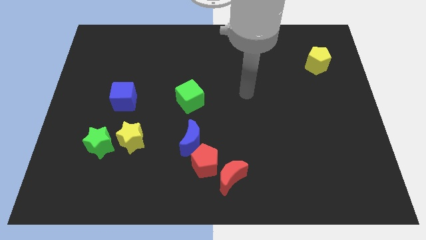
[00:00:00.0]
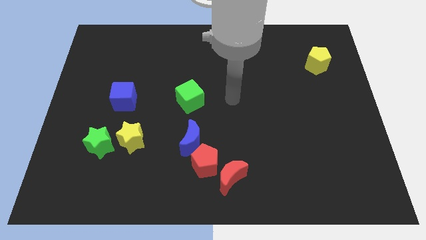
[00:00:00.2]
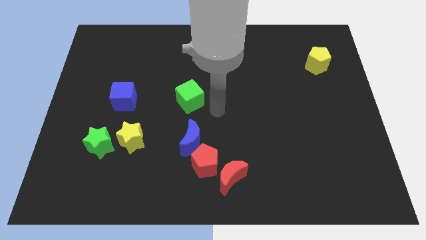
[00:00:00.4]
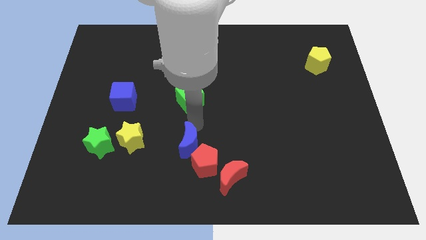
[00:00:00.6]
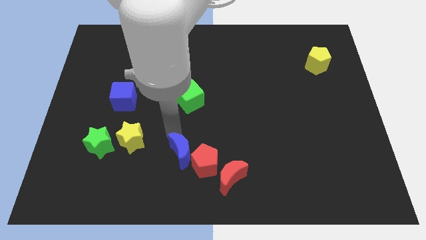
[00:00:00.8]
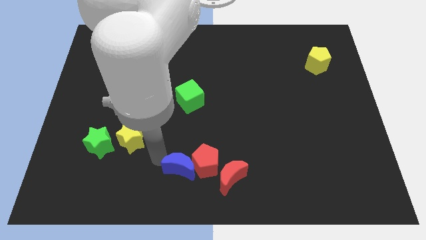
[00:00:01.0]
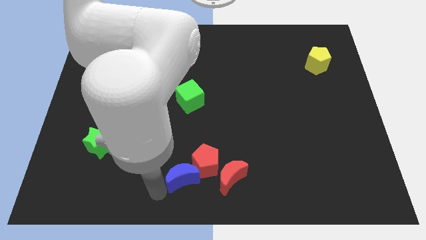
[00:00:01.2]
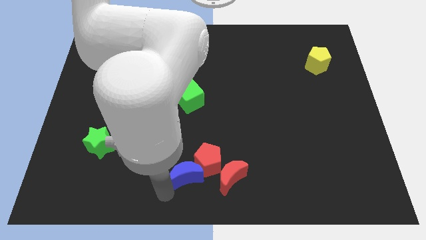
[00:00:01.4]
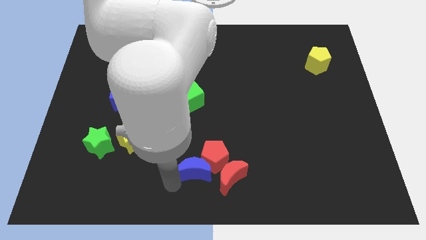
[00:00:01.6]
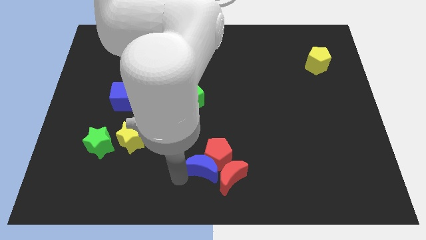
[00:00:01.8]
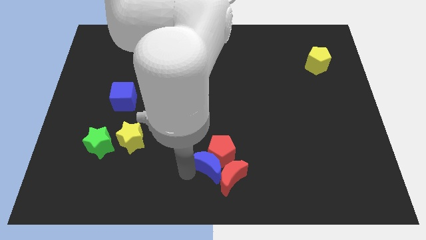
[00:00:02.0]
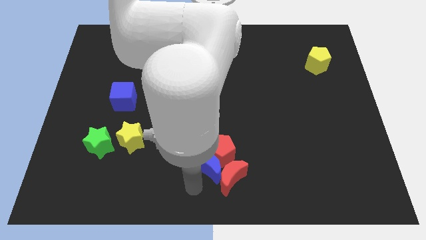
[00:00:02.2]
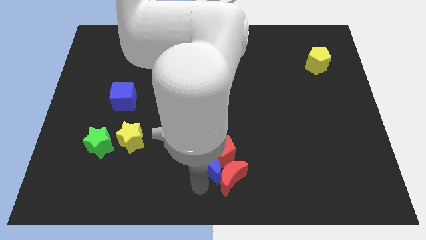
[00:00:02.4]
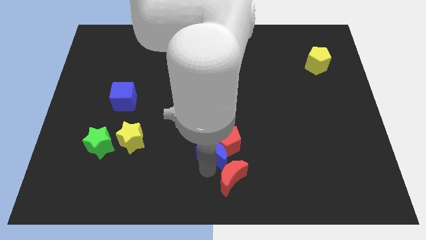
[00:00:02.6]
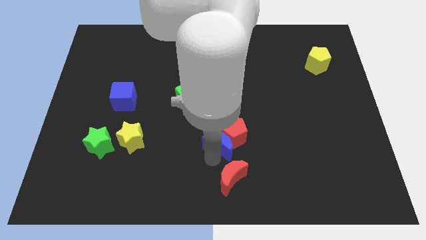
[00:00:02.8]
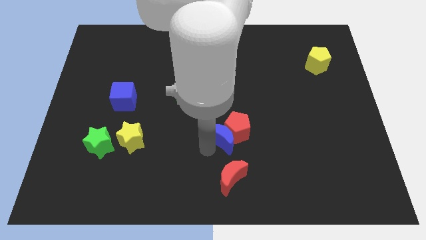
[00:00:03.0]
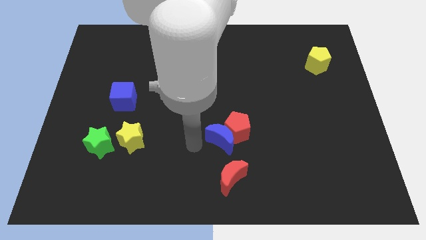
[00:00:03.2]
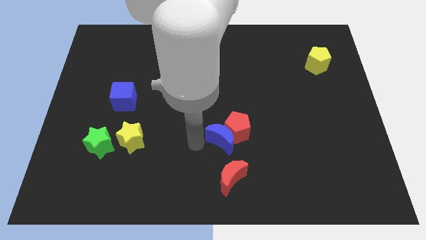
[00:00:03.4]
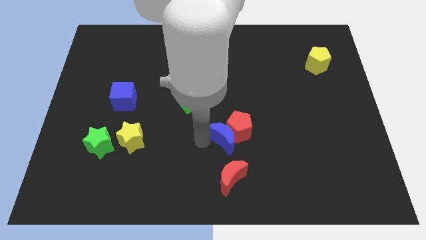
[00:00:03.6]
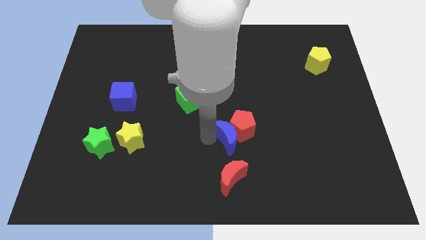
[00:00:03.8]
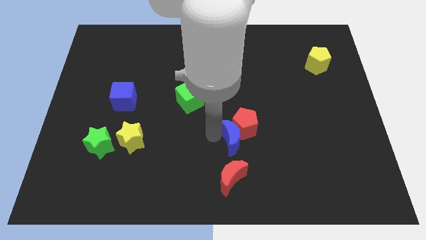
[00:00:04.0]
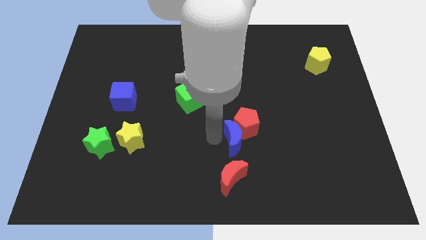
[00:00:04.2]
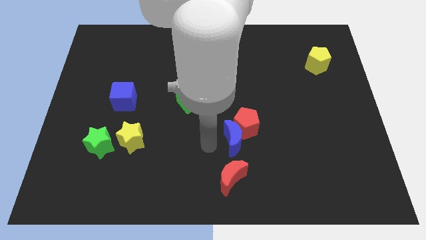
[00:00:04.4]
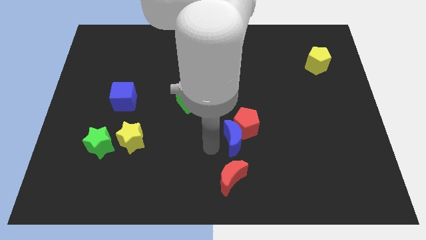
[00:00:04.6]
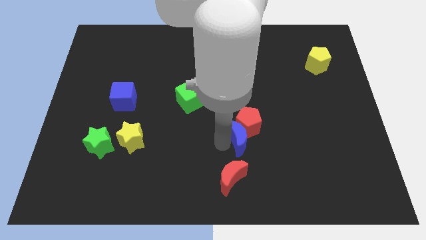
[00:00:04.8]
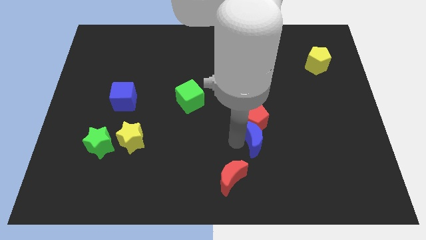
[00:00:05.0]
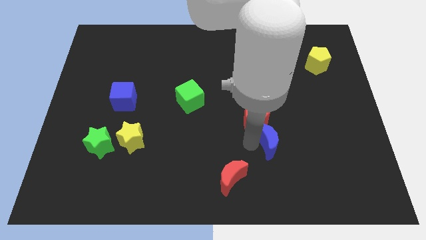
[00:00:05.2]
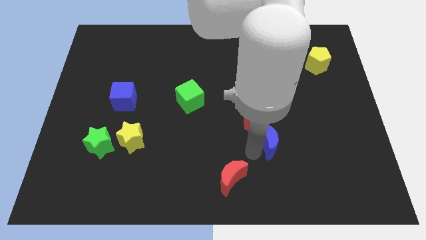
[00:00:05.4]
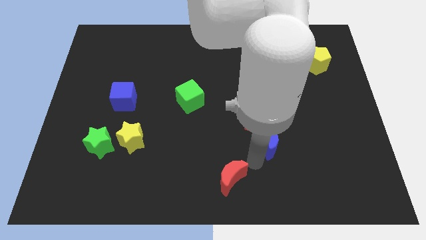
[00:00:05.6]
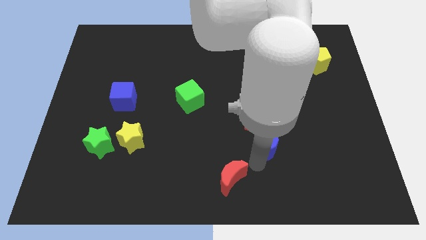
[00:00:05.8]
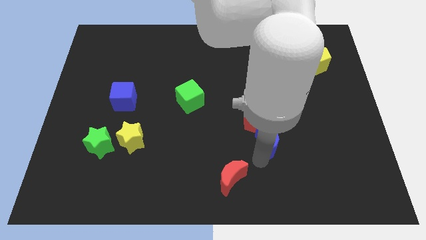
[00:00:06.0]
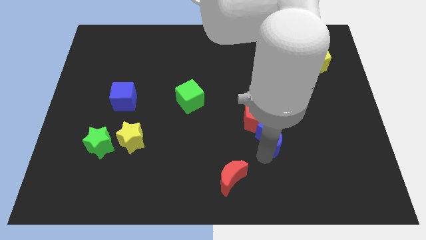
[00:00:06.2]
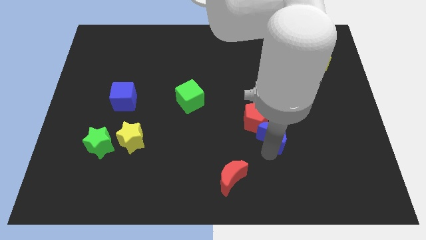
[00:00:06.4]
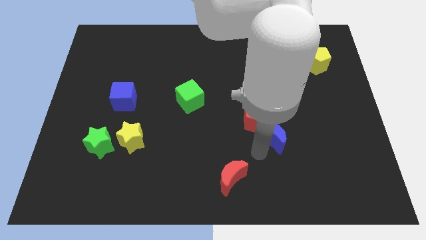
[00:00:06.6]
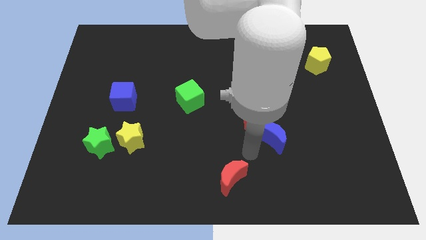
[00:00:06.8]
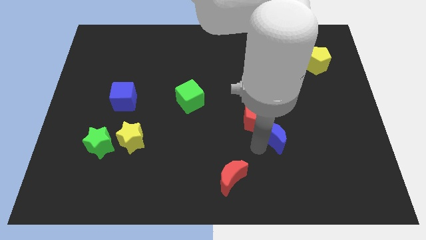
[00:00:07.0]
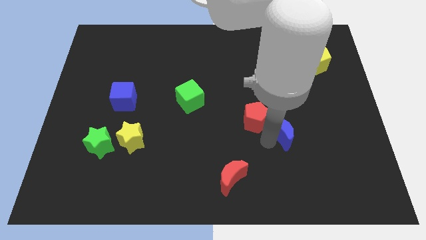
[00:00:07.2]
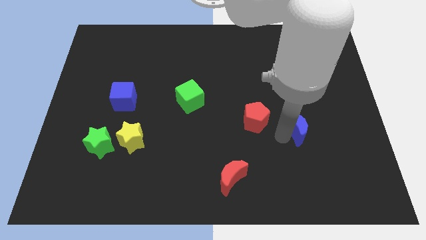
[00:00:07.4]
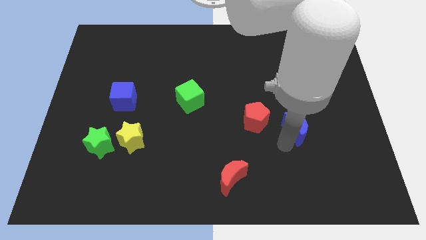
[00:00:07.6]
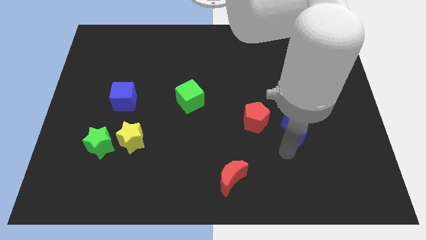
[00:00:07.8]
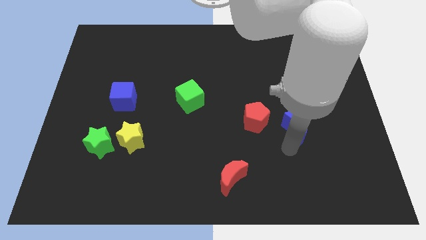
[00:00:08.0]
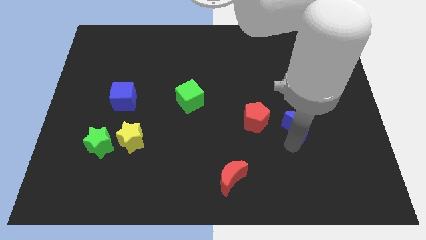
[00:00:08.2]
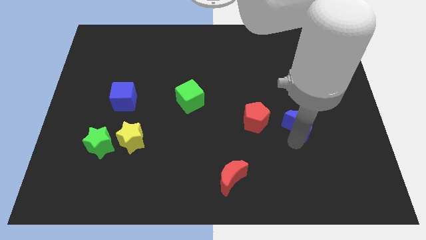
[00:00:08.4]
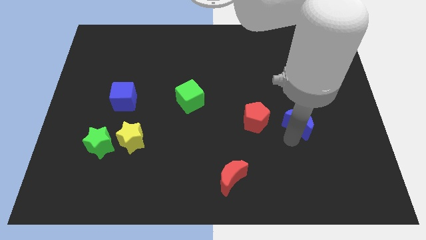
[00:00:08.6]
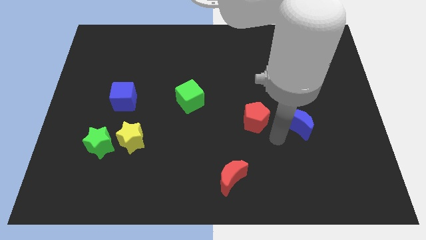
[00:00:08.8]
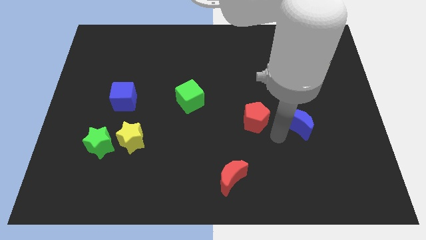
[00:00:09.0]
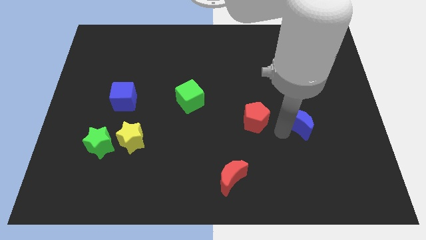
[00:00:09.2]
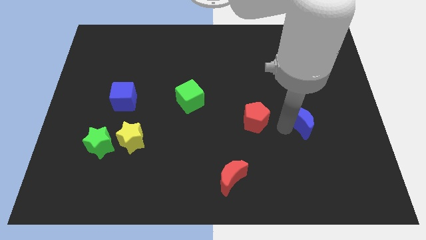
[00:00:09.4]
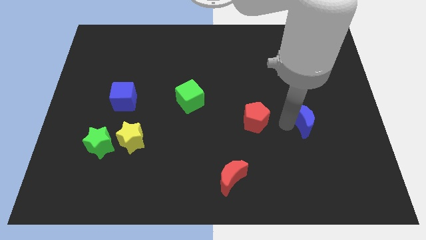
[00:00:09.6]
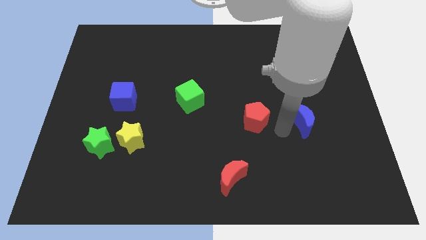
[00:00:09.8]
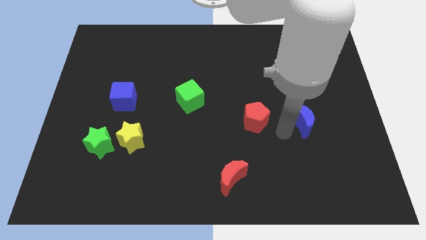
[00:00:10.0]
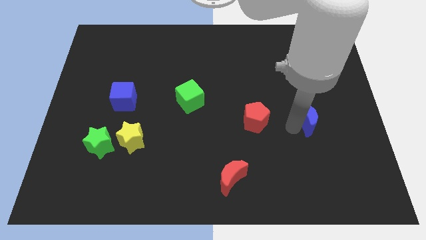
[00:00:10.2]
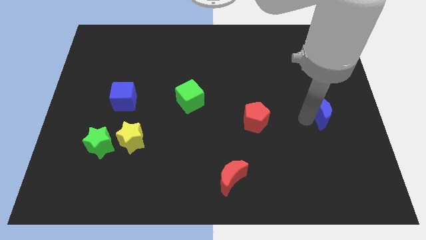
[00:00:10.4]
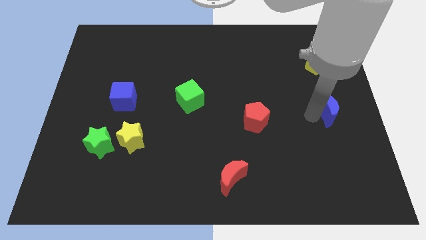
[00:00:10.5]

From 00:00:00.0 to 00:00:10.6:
push the blue moon to the center right

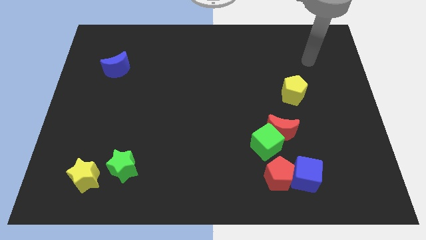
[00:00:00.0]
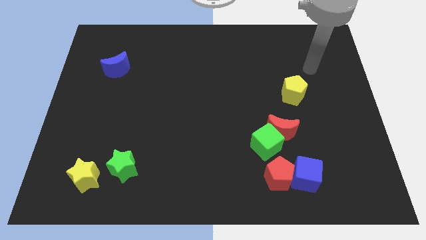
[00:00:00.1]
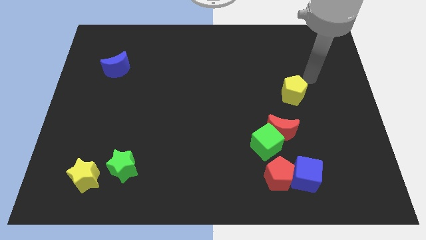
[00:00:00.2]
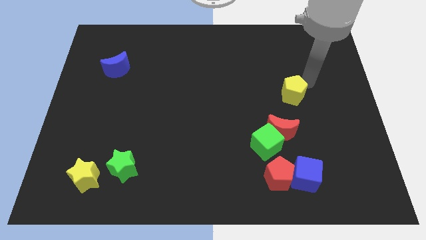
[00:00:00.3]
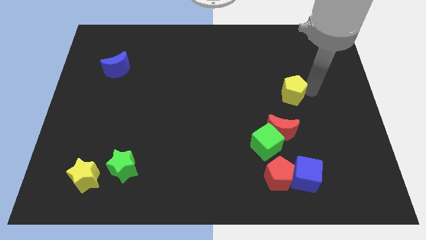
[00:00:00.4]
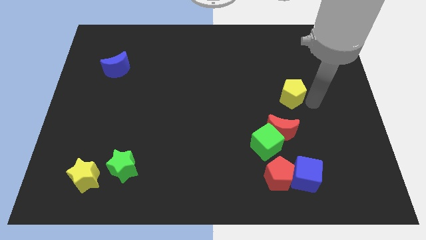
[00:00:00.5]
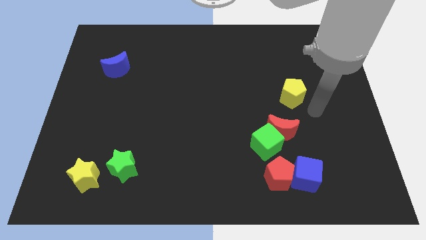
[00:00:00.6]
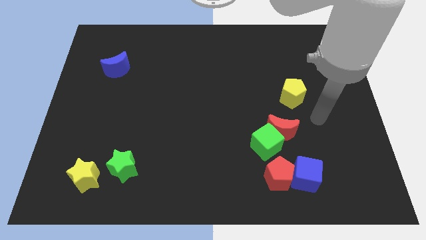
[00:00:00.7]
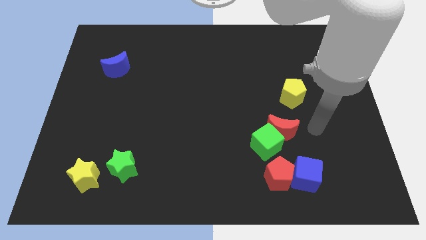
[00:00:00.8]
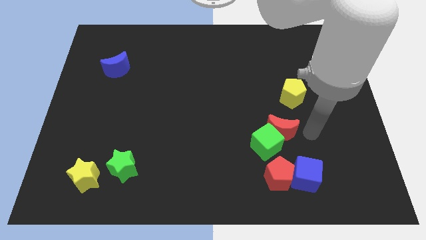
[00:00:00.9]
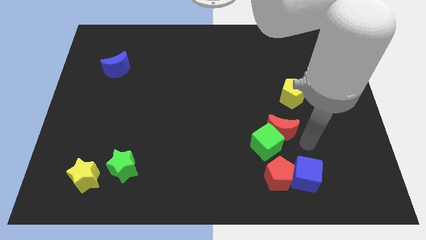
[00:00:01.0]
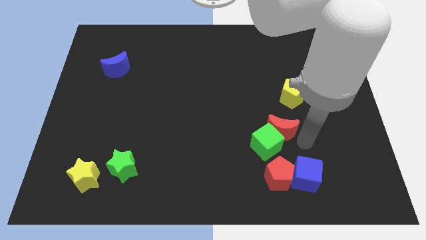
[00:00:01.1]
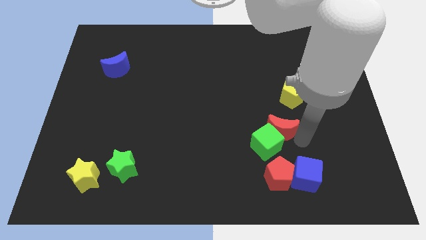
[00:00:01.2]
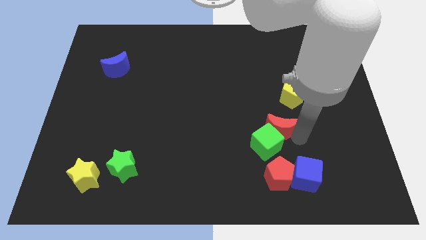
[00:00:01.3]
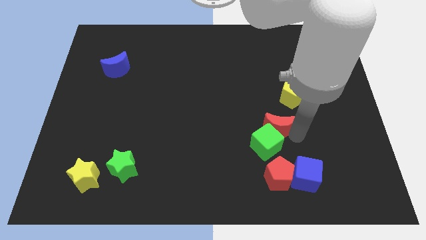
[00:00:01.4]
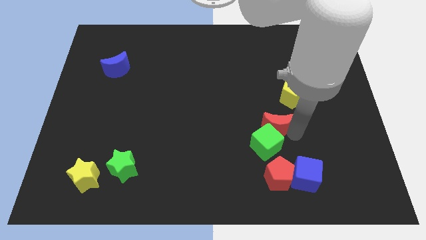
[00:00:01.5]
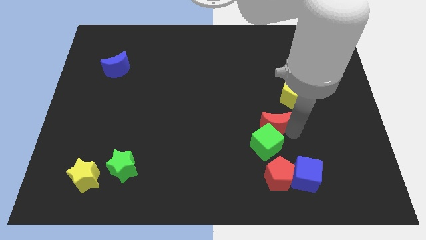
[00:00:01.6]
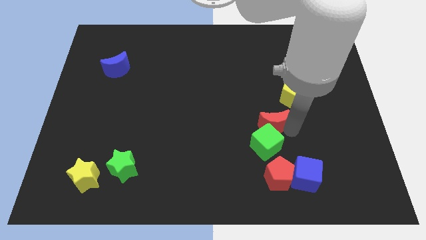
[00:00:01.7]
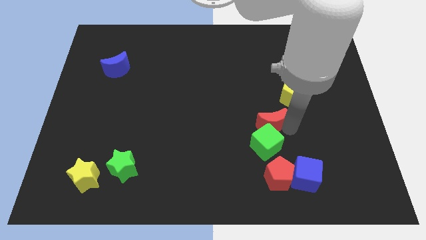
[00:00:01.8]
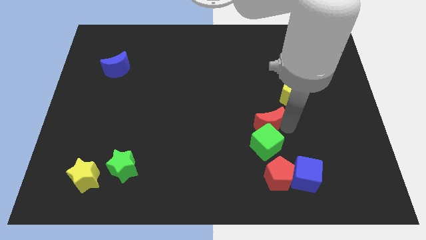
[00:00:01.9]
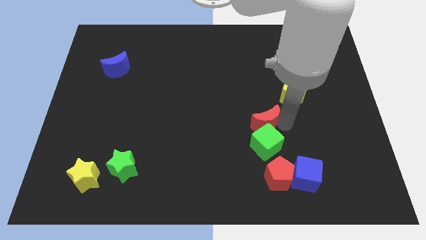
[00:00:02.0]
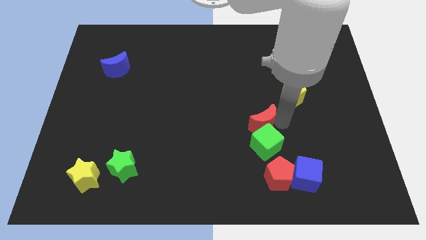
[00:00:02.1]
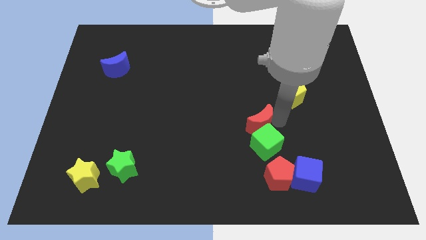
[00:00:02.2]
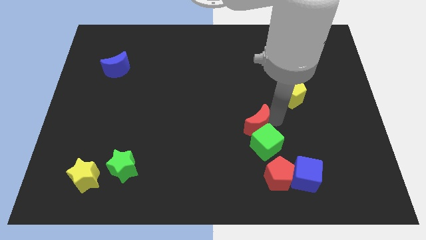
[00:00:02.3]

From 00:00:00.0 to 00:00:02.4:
put the red moon to the center of the board
